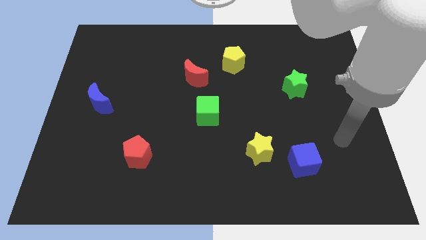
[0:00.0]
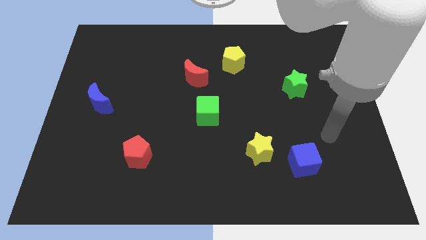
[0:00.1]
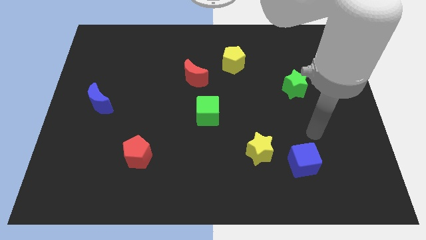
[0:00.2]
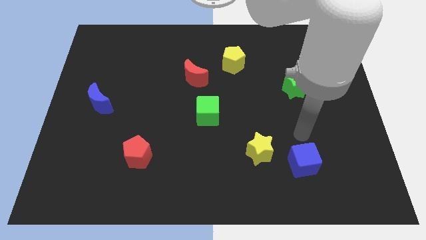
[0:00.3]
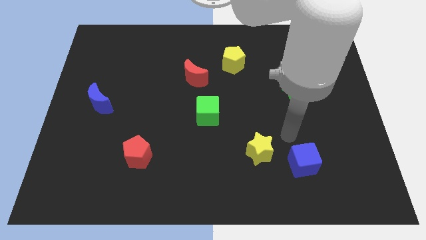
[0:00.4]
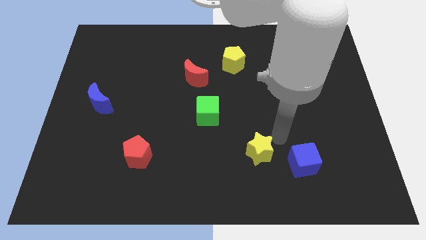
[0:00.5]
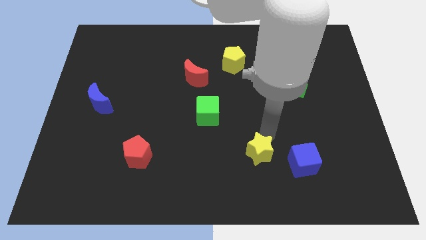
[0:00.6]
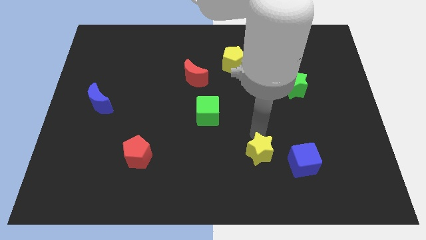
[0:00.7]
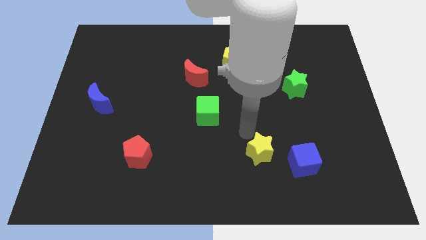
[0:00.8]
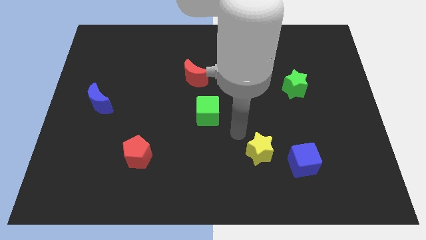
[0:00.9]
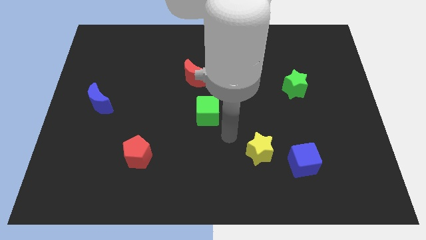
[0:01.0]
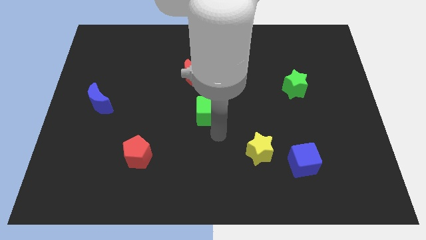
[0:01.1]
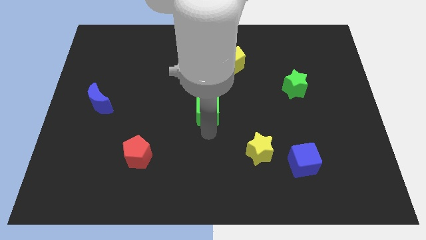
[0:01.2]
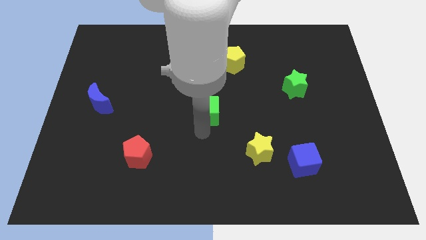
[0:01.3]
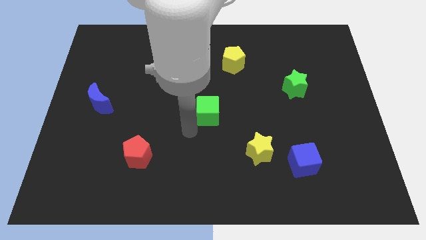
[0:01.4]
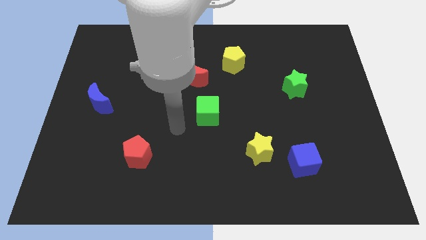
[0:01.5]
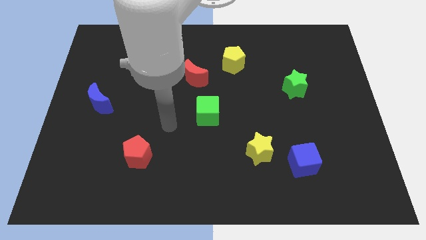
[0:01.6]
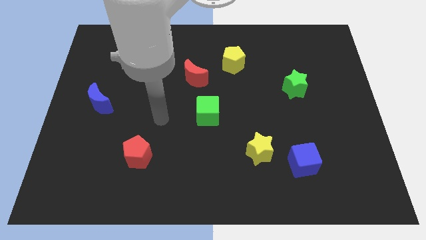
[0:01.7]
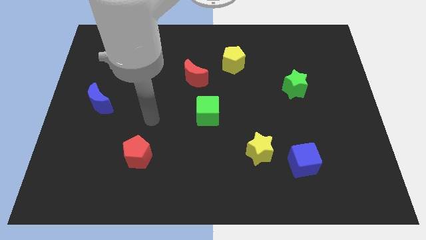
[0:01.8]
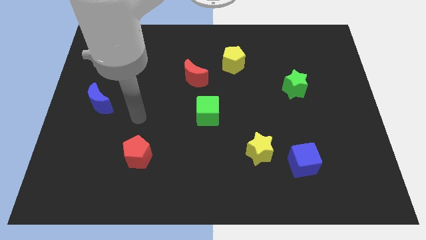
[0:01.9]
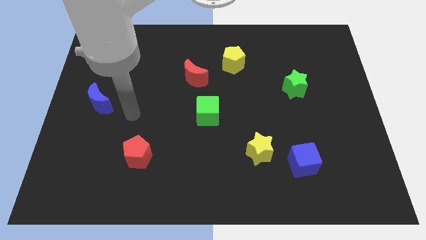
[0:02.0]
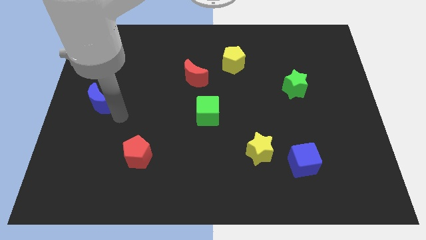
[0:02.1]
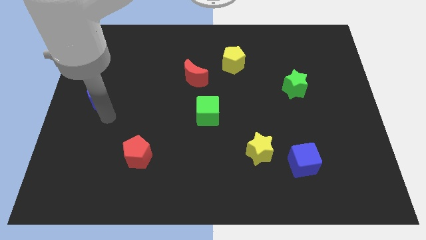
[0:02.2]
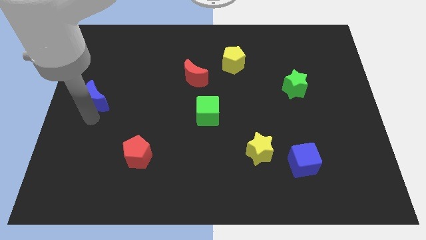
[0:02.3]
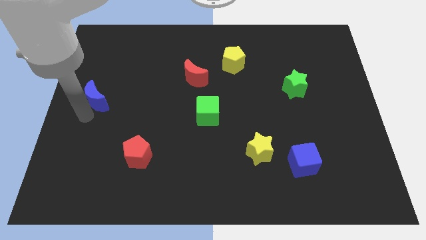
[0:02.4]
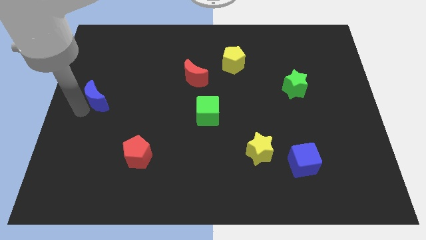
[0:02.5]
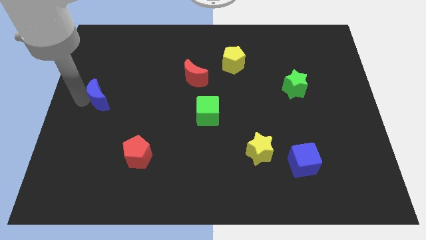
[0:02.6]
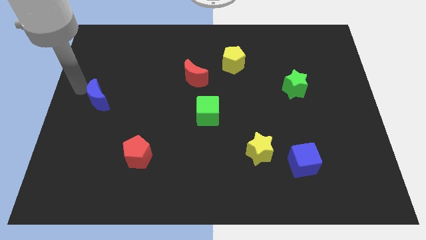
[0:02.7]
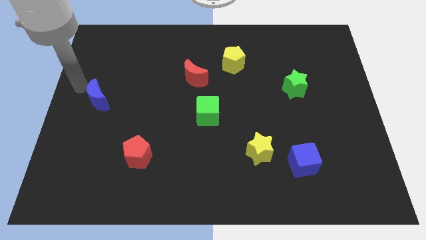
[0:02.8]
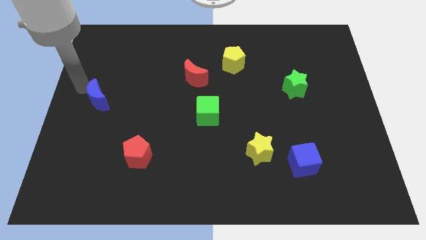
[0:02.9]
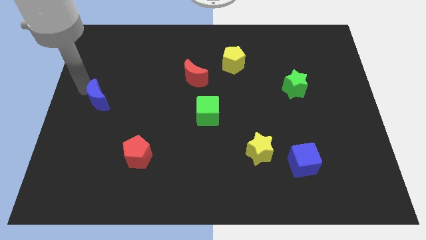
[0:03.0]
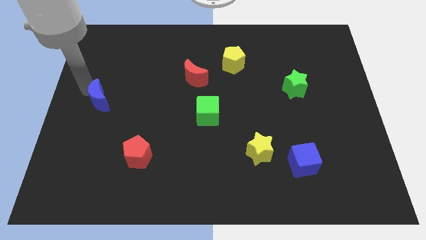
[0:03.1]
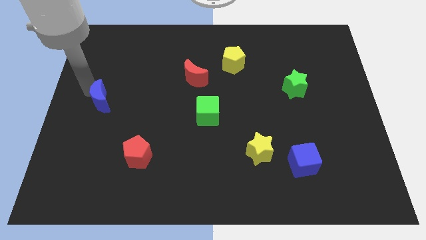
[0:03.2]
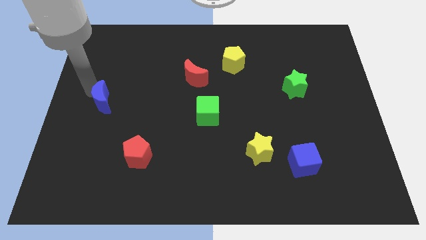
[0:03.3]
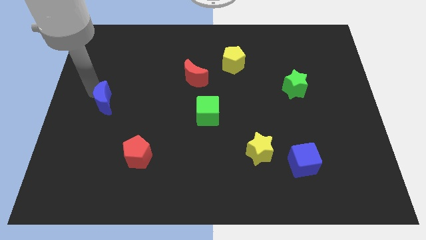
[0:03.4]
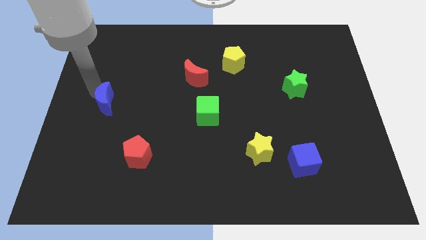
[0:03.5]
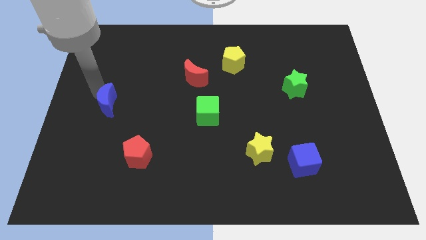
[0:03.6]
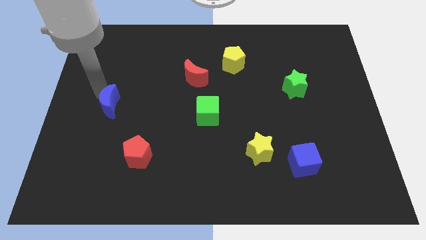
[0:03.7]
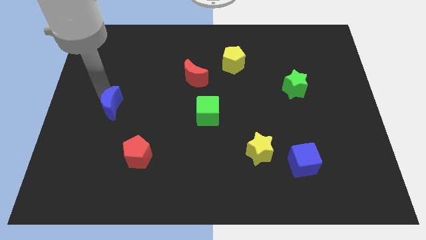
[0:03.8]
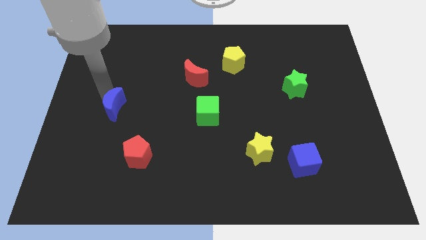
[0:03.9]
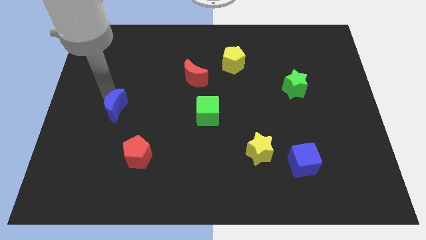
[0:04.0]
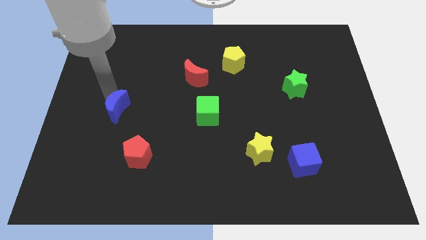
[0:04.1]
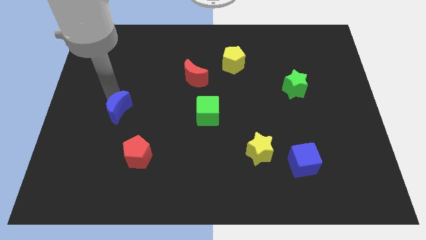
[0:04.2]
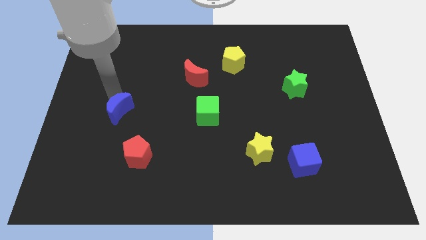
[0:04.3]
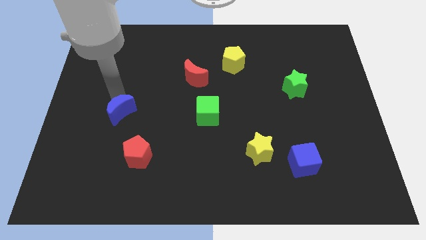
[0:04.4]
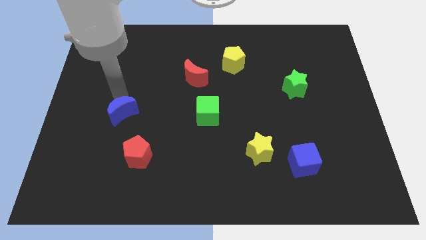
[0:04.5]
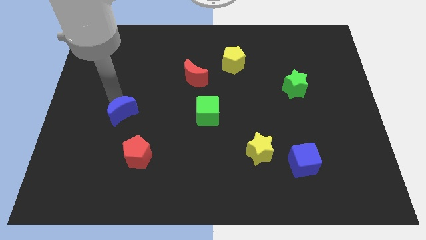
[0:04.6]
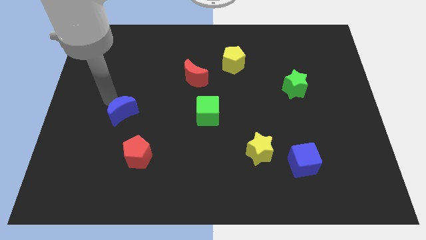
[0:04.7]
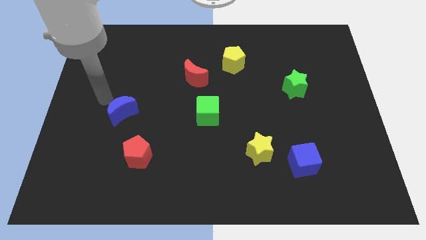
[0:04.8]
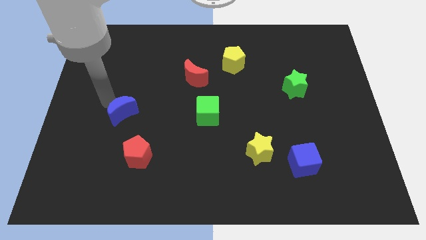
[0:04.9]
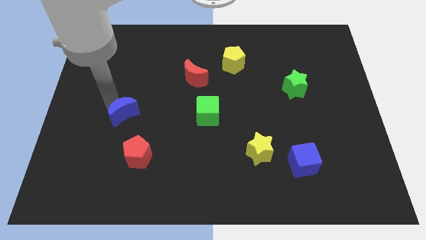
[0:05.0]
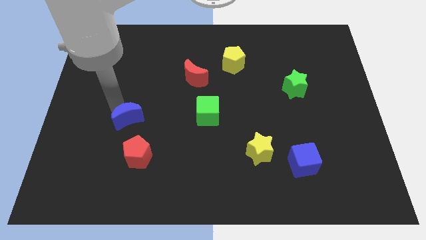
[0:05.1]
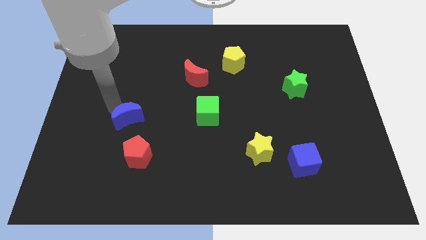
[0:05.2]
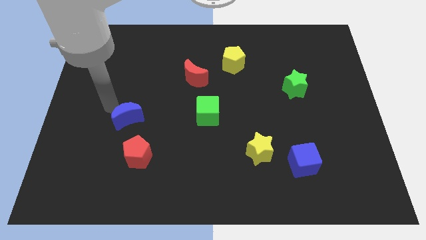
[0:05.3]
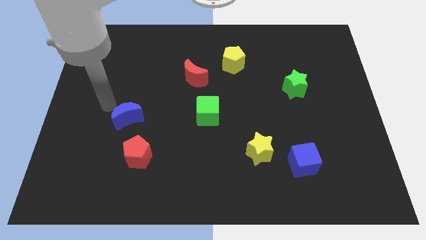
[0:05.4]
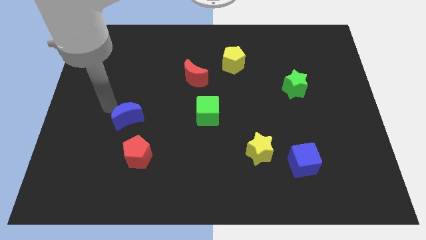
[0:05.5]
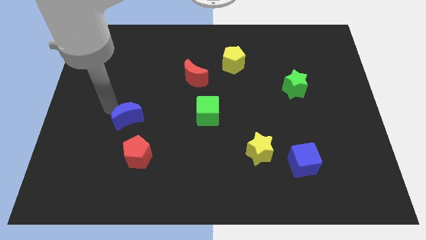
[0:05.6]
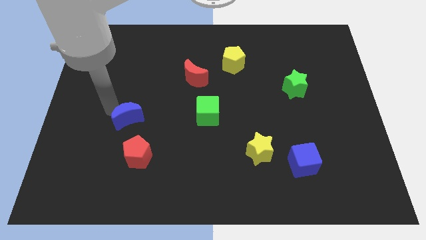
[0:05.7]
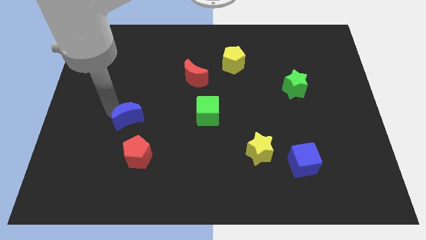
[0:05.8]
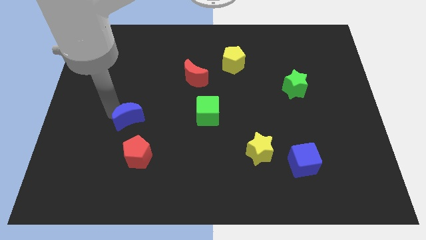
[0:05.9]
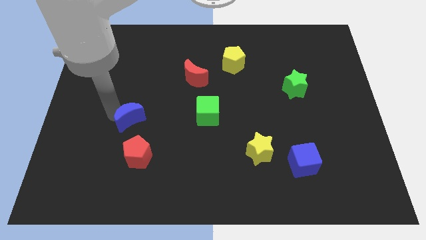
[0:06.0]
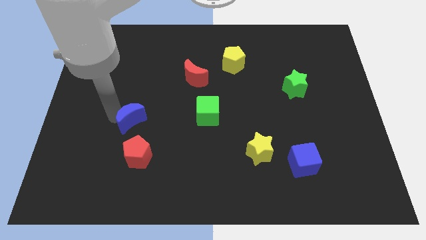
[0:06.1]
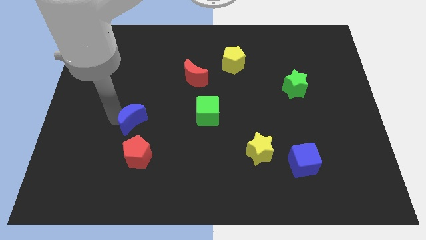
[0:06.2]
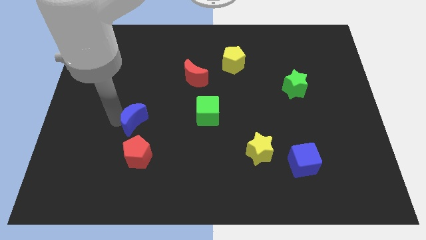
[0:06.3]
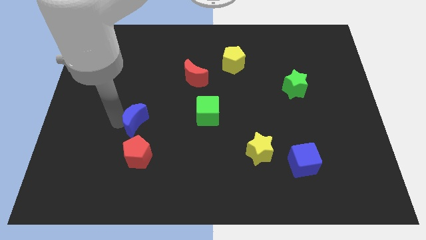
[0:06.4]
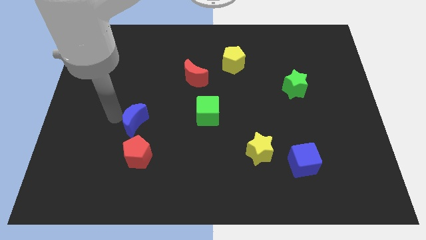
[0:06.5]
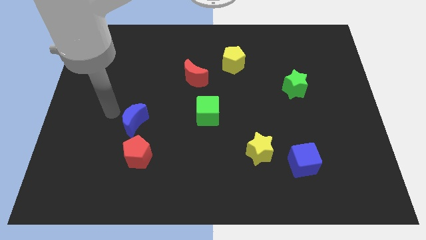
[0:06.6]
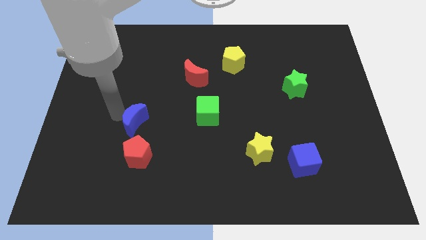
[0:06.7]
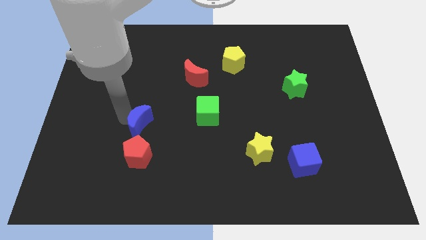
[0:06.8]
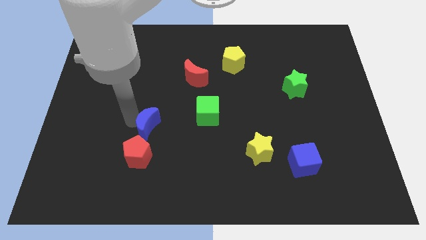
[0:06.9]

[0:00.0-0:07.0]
put the blue moon diagonally up and to the right of the red pentagon
